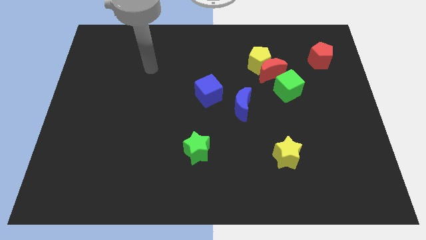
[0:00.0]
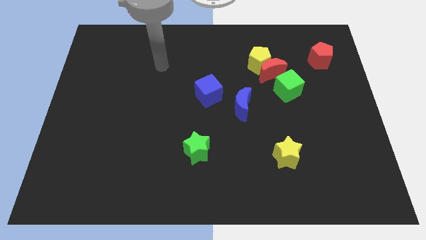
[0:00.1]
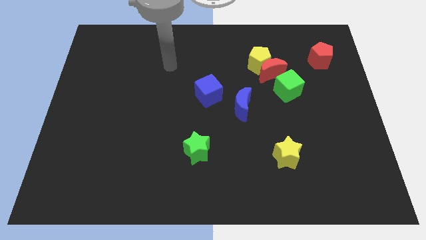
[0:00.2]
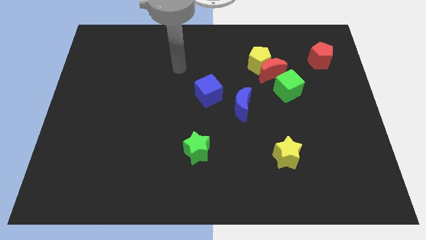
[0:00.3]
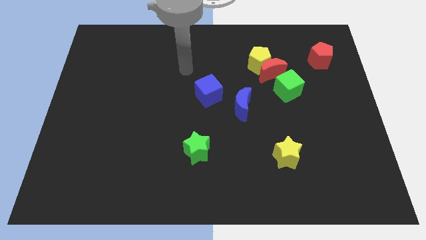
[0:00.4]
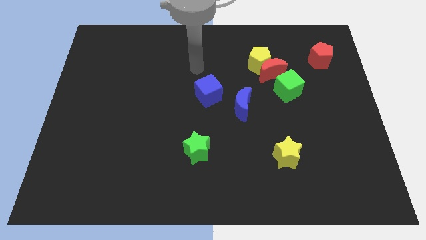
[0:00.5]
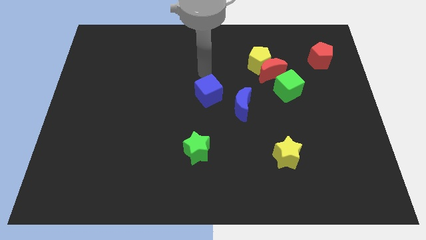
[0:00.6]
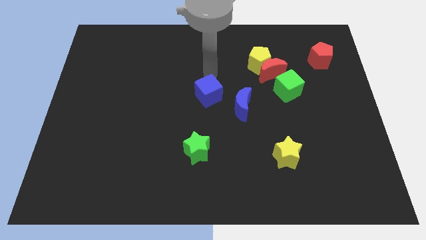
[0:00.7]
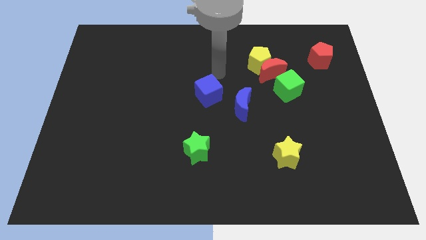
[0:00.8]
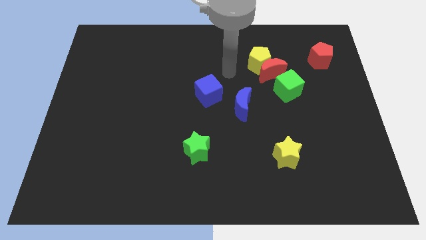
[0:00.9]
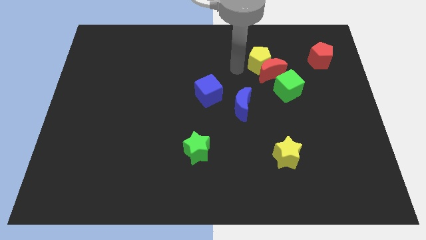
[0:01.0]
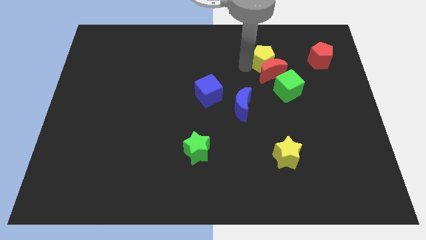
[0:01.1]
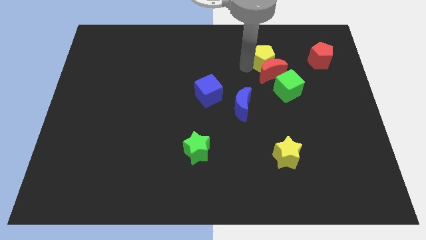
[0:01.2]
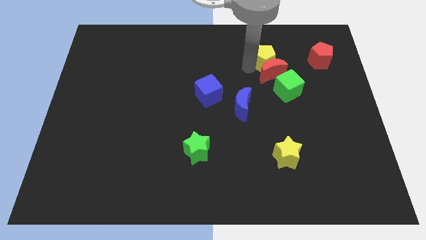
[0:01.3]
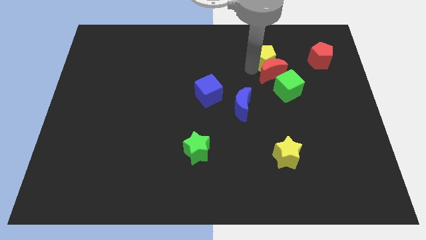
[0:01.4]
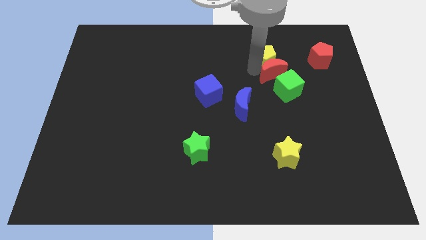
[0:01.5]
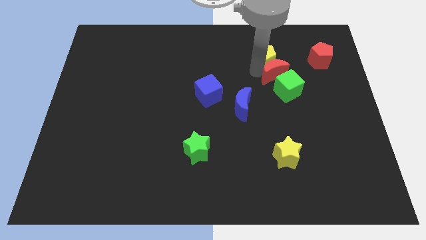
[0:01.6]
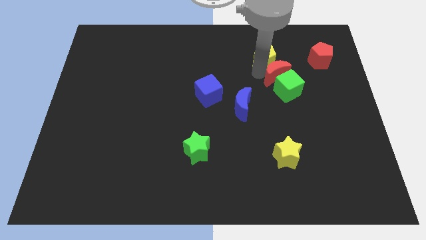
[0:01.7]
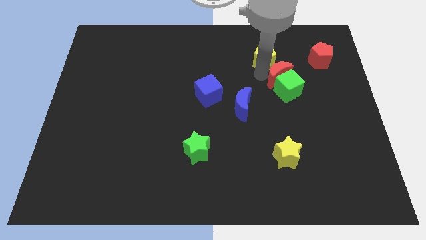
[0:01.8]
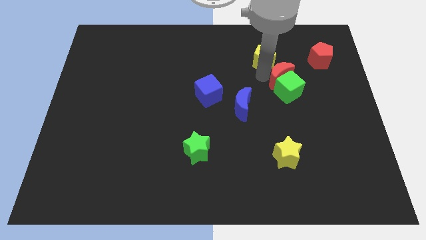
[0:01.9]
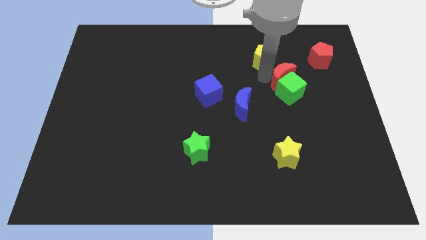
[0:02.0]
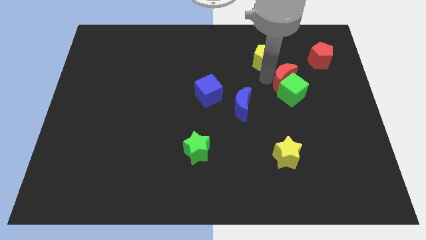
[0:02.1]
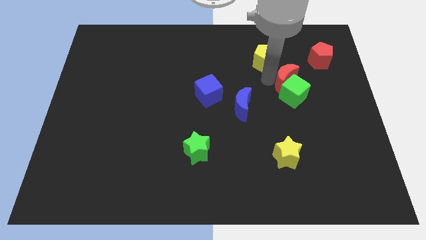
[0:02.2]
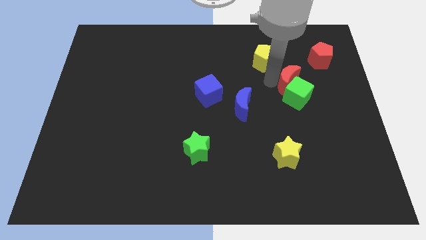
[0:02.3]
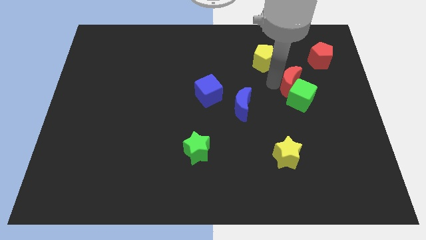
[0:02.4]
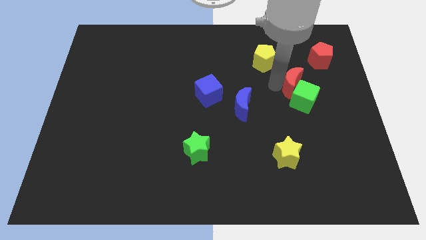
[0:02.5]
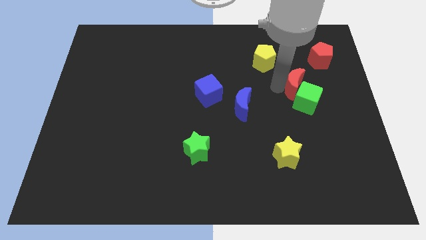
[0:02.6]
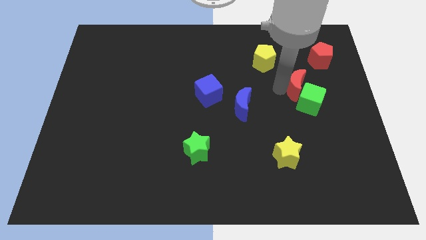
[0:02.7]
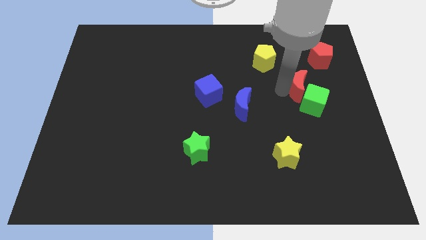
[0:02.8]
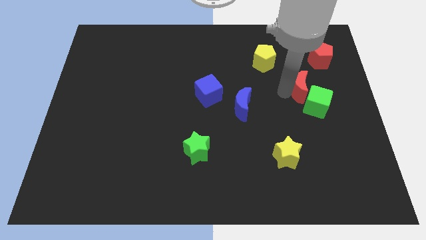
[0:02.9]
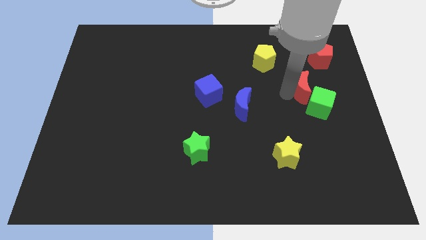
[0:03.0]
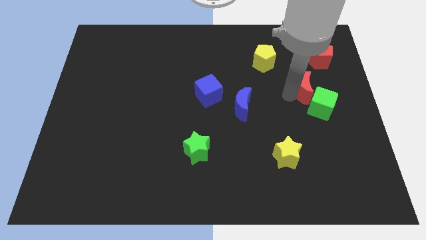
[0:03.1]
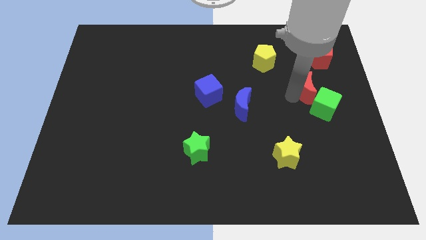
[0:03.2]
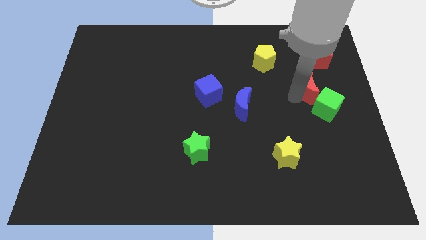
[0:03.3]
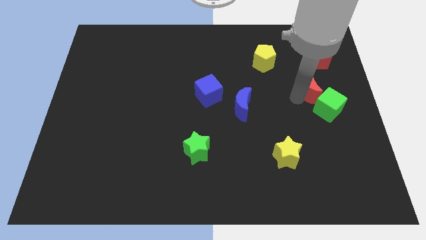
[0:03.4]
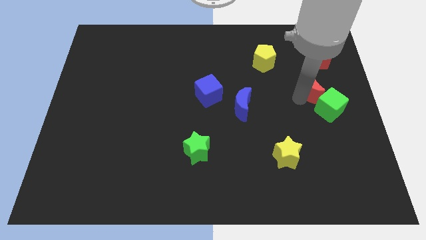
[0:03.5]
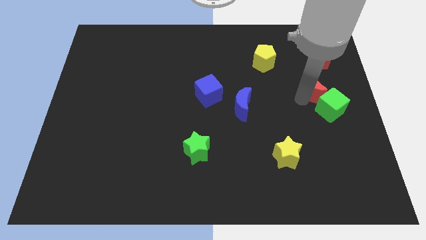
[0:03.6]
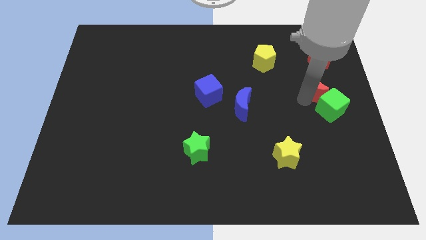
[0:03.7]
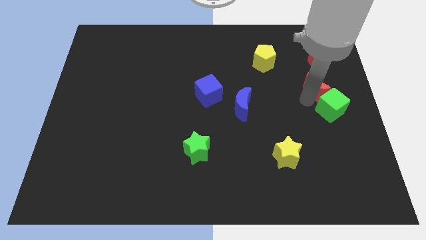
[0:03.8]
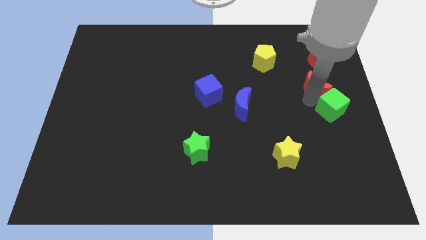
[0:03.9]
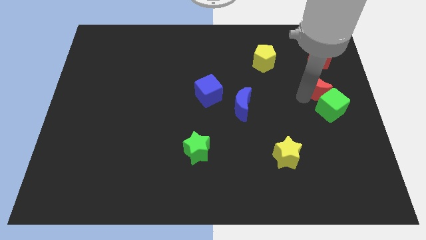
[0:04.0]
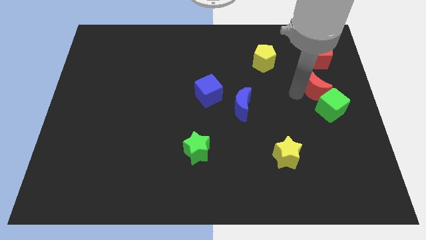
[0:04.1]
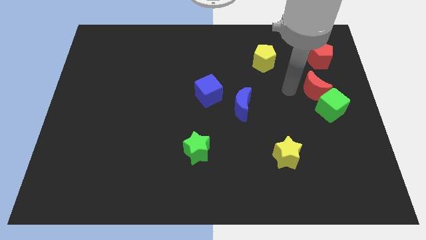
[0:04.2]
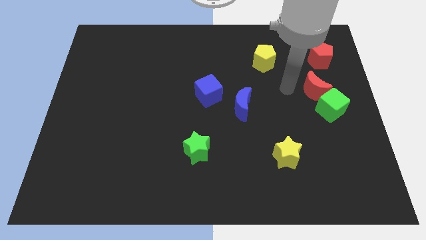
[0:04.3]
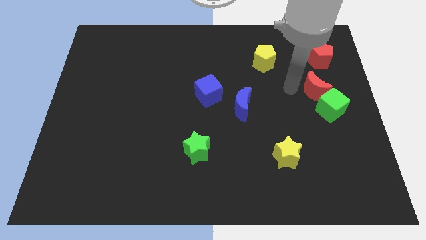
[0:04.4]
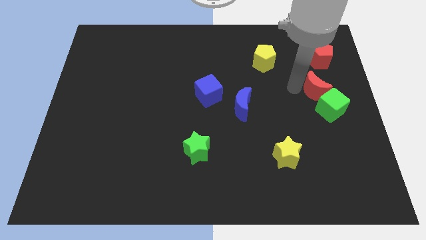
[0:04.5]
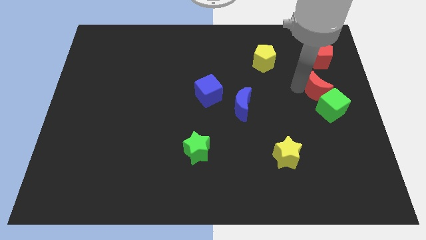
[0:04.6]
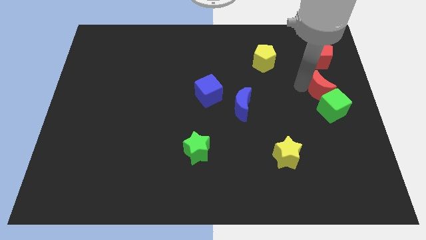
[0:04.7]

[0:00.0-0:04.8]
move the red moon to the right side

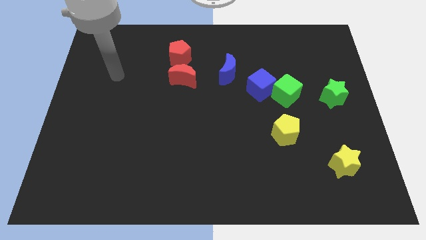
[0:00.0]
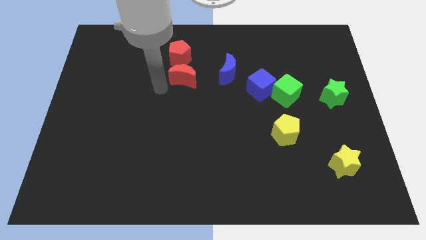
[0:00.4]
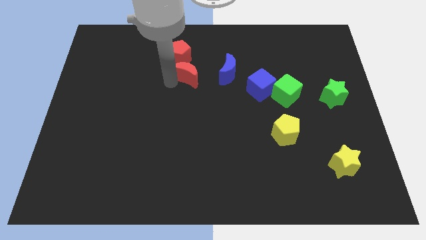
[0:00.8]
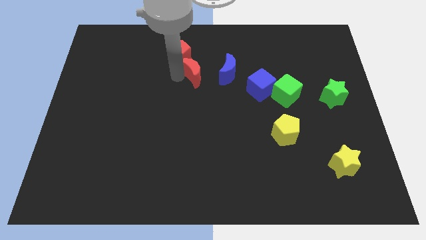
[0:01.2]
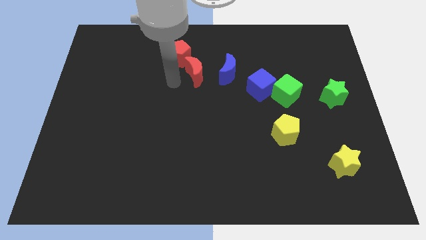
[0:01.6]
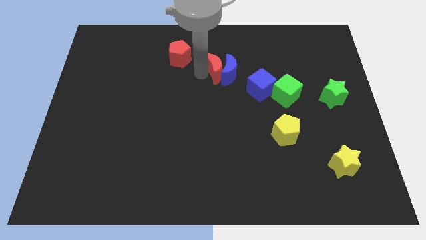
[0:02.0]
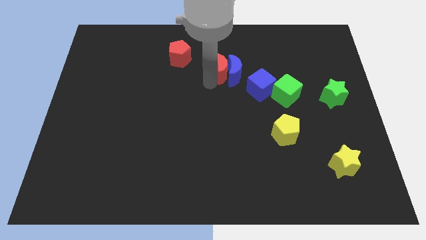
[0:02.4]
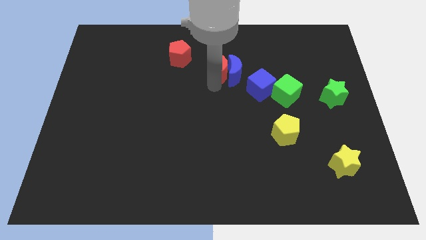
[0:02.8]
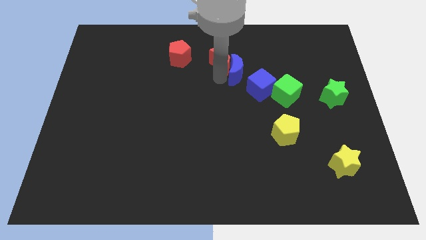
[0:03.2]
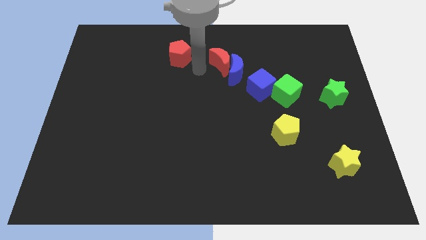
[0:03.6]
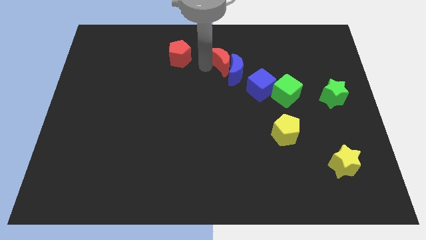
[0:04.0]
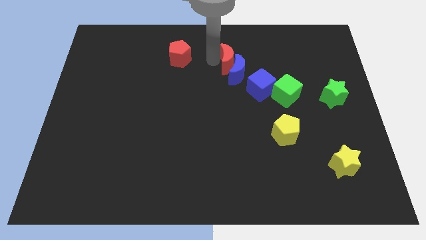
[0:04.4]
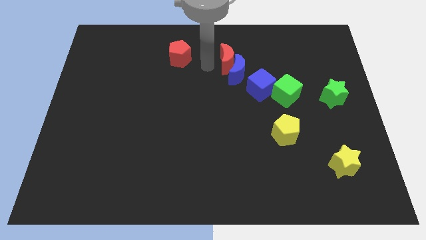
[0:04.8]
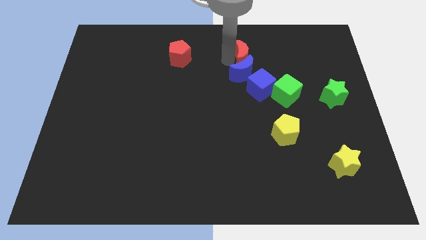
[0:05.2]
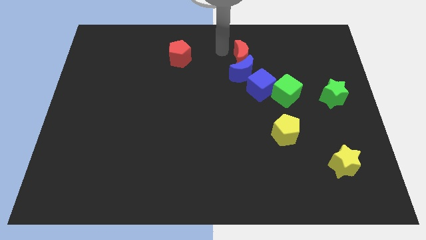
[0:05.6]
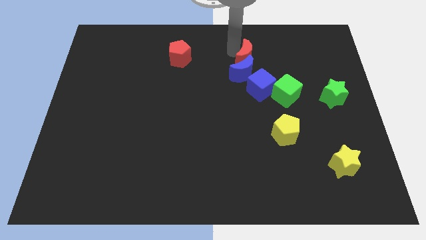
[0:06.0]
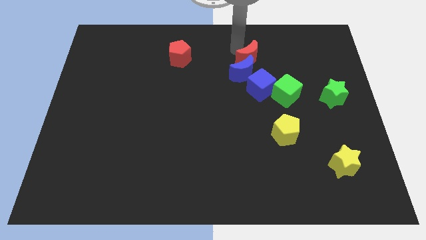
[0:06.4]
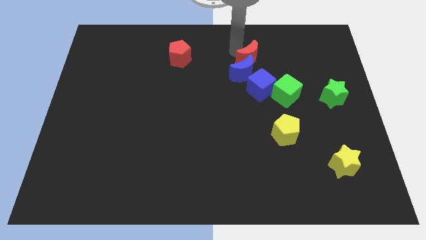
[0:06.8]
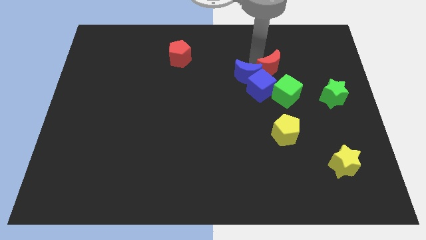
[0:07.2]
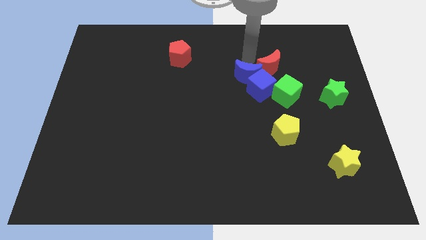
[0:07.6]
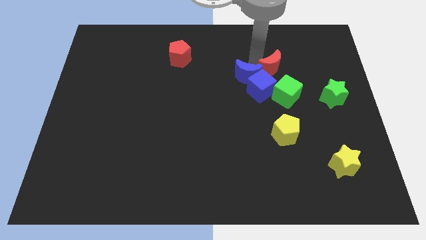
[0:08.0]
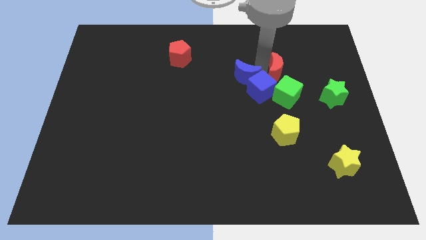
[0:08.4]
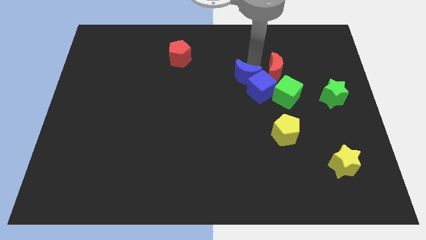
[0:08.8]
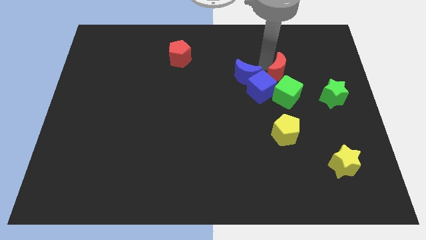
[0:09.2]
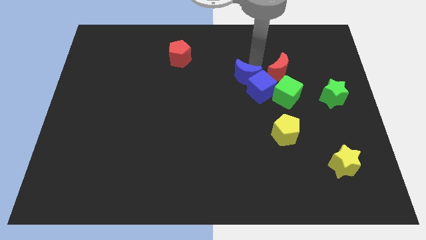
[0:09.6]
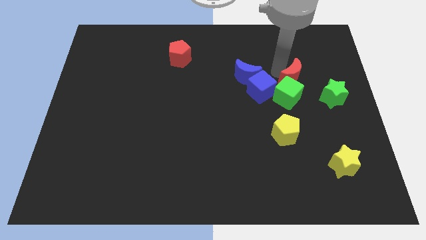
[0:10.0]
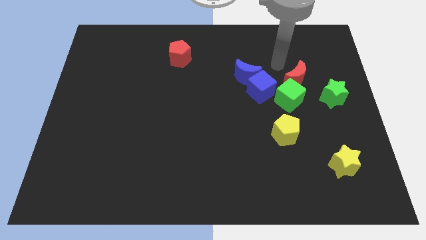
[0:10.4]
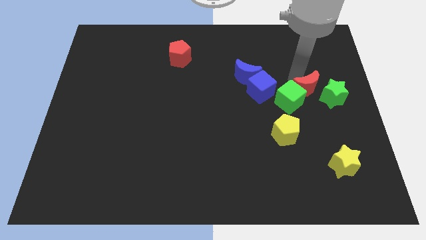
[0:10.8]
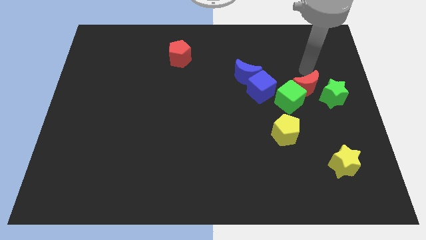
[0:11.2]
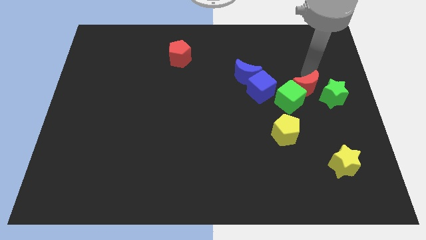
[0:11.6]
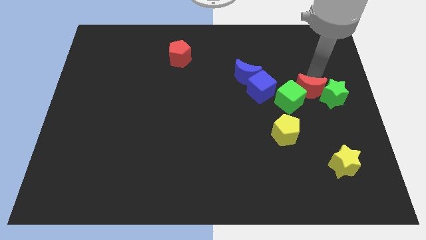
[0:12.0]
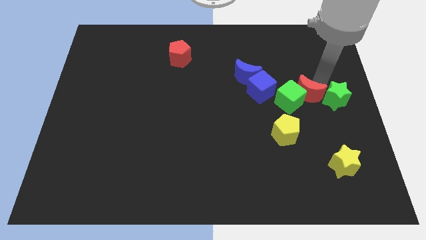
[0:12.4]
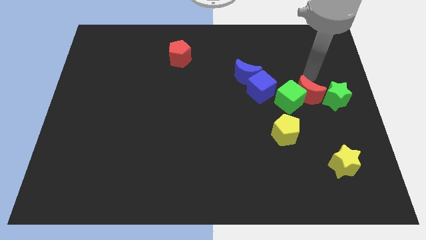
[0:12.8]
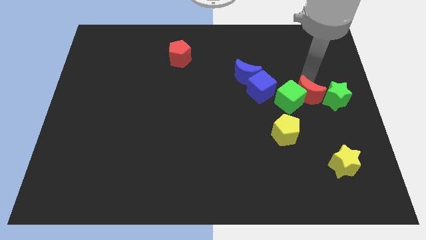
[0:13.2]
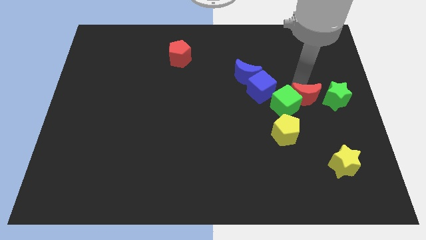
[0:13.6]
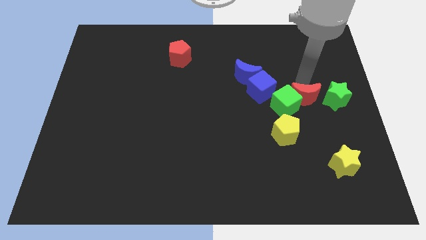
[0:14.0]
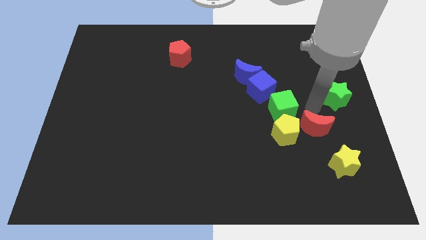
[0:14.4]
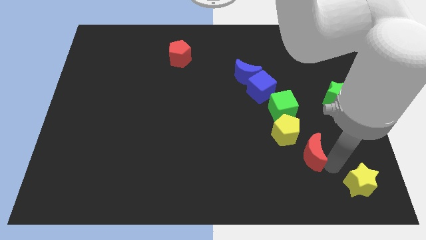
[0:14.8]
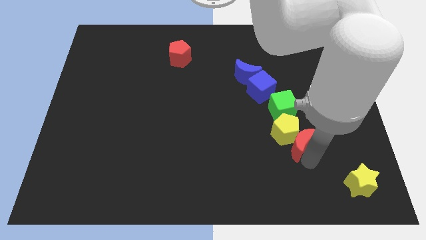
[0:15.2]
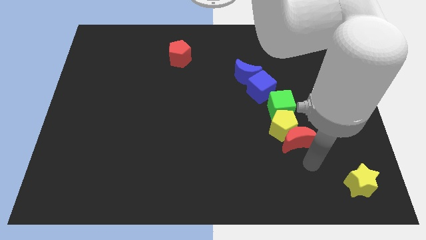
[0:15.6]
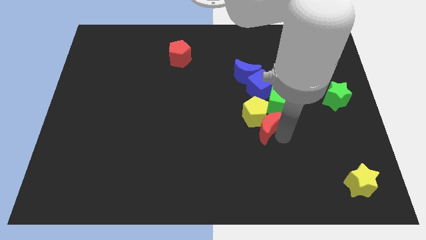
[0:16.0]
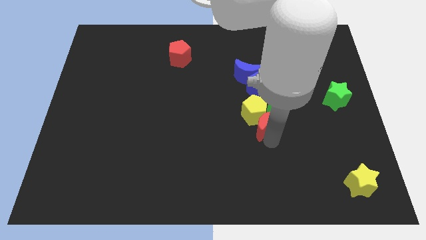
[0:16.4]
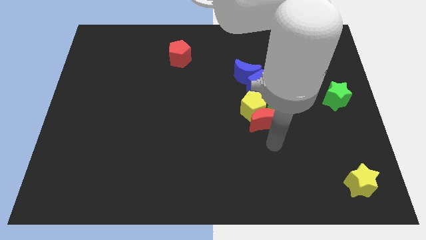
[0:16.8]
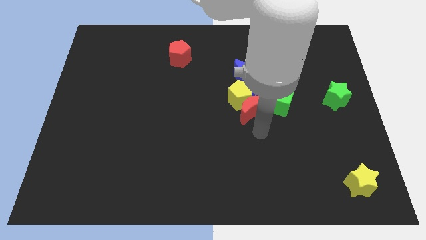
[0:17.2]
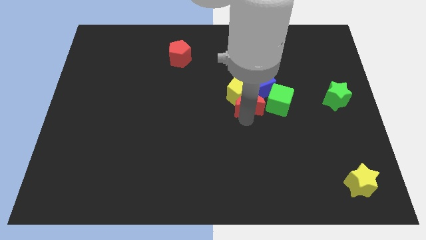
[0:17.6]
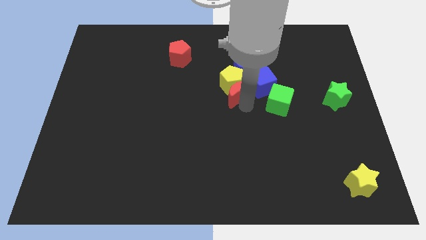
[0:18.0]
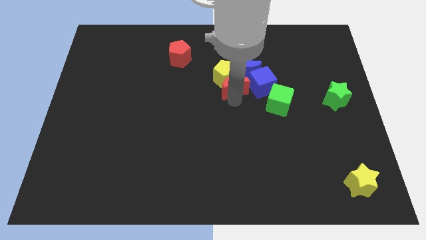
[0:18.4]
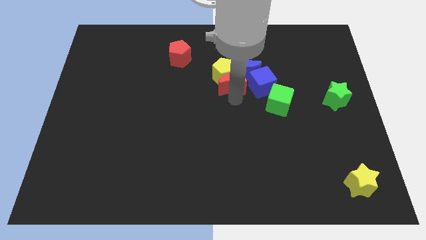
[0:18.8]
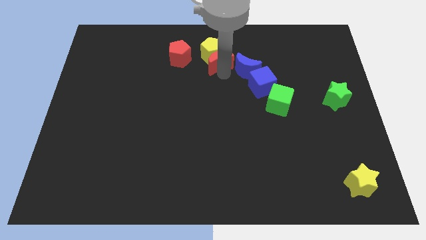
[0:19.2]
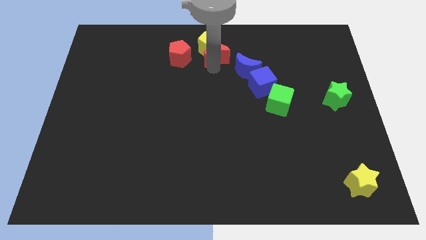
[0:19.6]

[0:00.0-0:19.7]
put the red moon to the top side
